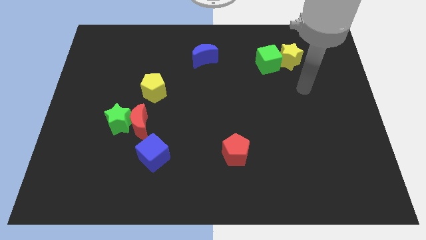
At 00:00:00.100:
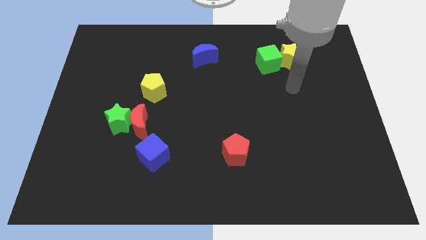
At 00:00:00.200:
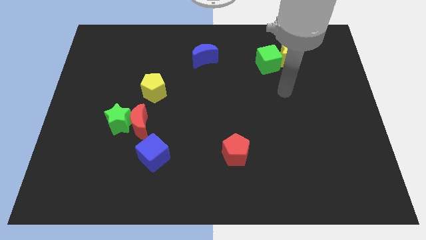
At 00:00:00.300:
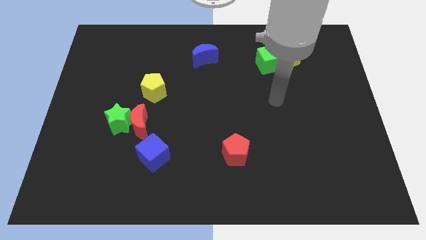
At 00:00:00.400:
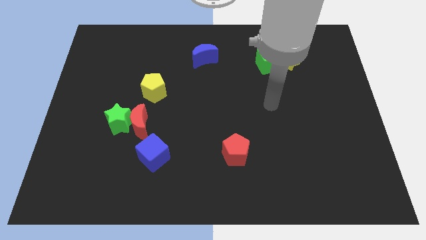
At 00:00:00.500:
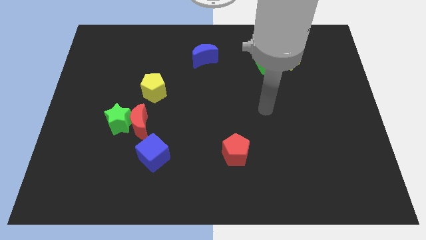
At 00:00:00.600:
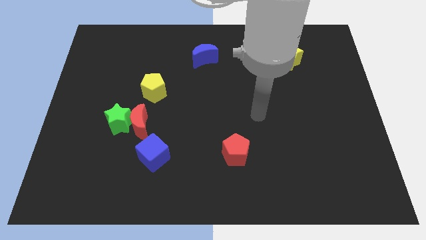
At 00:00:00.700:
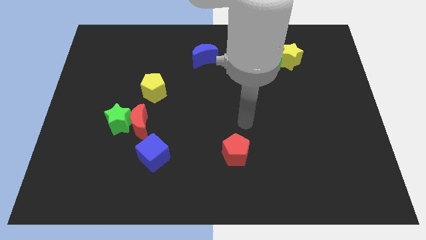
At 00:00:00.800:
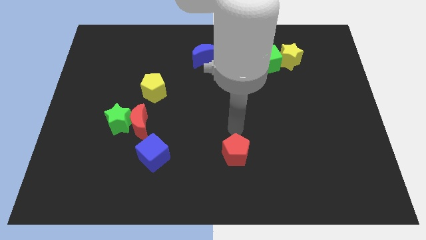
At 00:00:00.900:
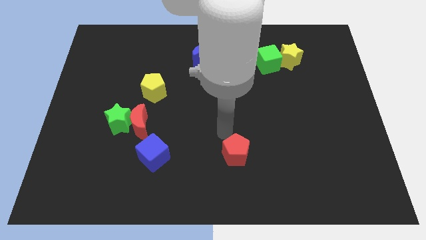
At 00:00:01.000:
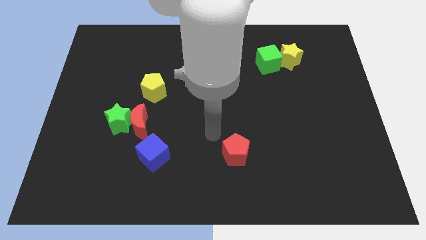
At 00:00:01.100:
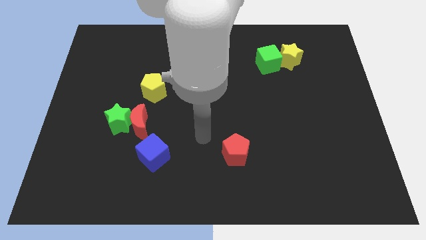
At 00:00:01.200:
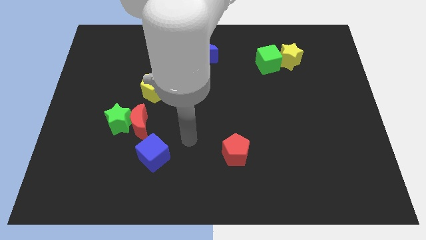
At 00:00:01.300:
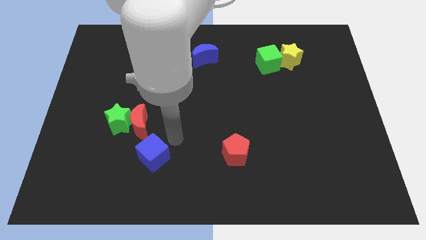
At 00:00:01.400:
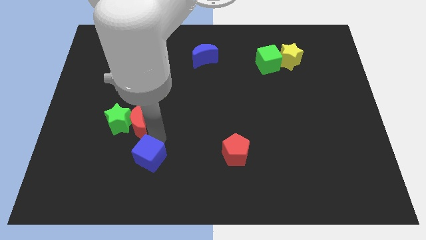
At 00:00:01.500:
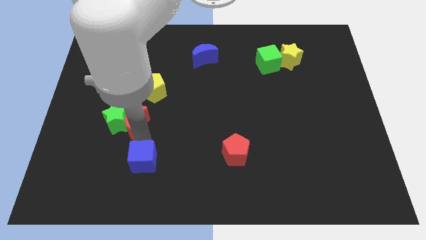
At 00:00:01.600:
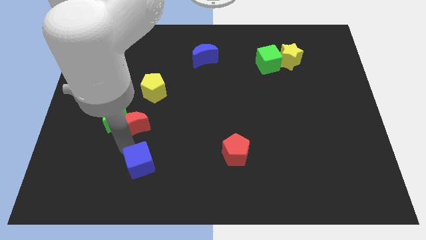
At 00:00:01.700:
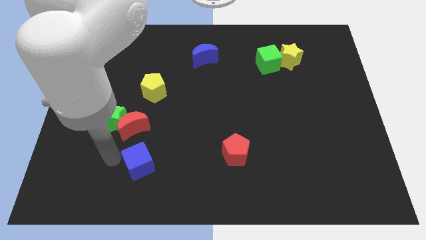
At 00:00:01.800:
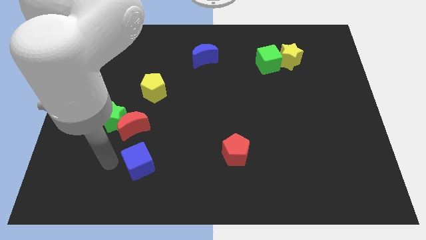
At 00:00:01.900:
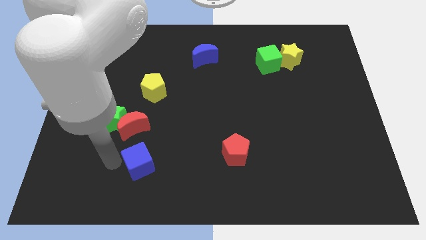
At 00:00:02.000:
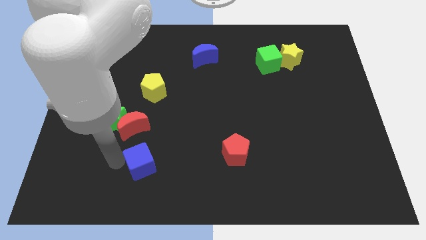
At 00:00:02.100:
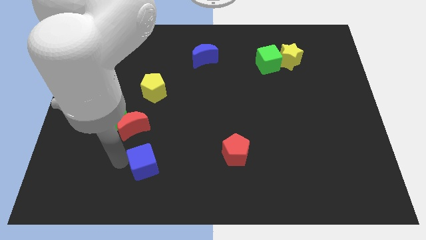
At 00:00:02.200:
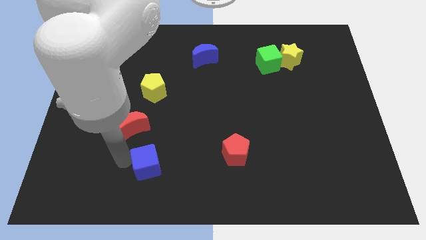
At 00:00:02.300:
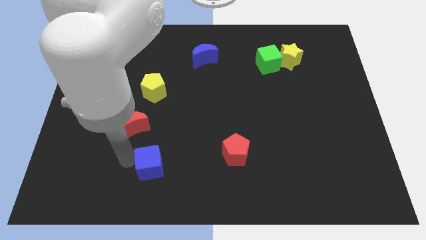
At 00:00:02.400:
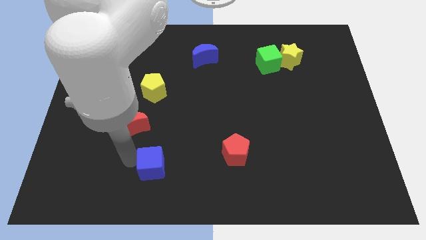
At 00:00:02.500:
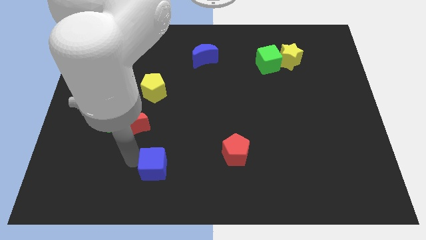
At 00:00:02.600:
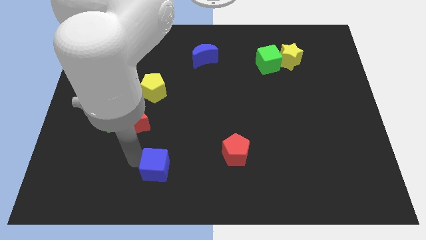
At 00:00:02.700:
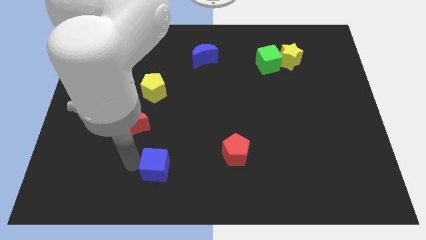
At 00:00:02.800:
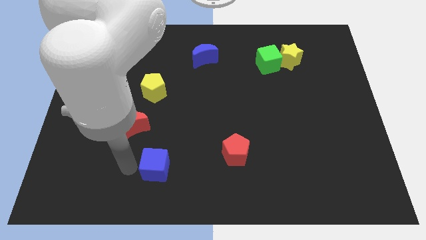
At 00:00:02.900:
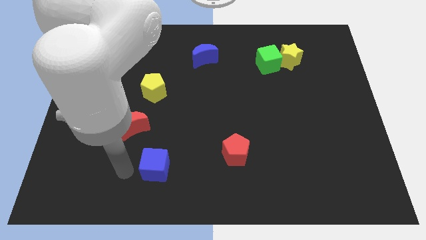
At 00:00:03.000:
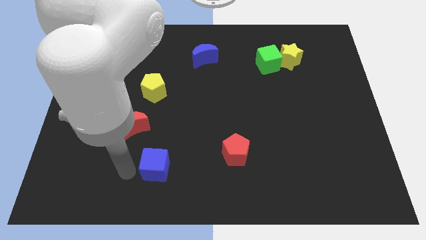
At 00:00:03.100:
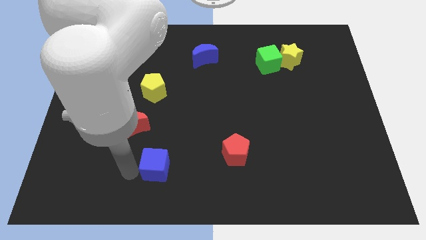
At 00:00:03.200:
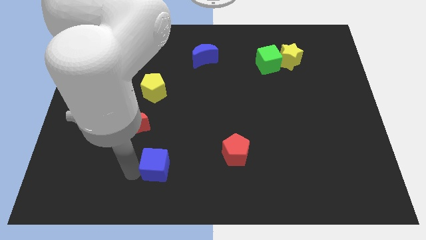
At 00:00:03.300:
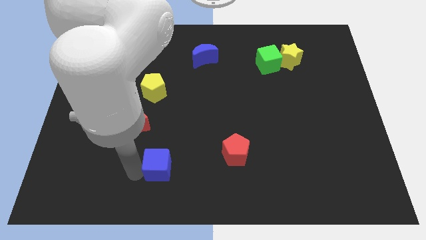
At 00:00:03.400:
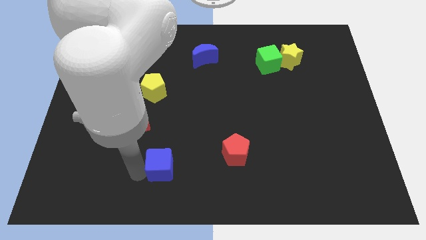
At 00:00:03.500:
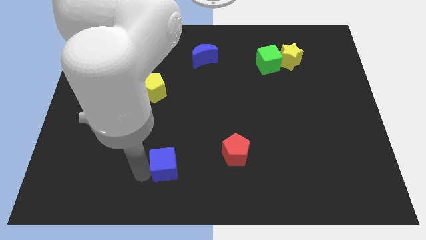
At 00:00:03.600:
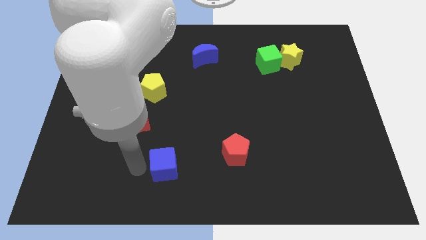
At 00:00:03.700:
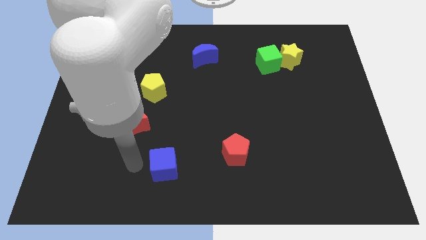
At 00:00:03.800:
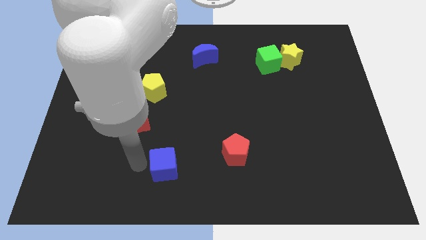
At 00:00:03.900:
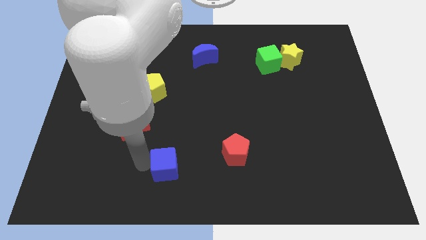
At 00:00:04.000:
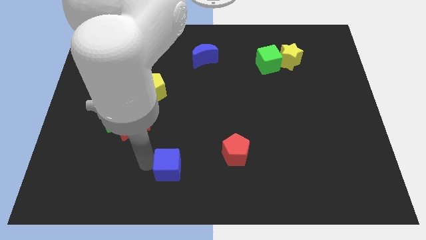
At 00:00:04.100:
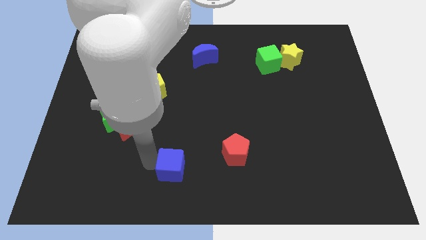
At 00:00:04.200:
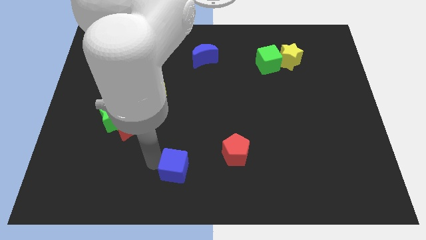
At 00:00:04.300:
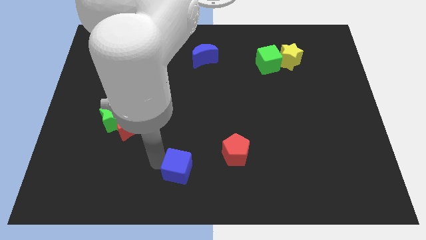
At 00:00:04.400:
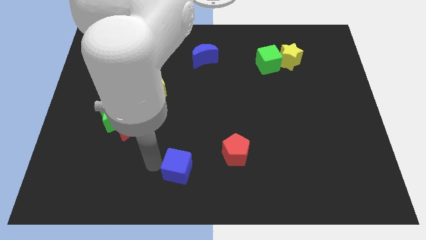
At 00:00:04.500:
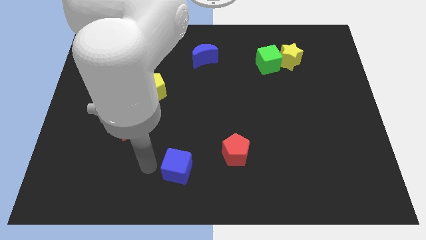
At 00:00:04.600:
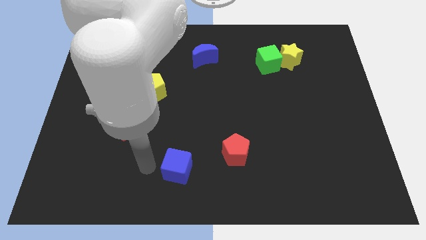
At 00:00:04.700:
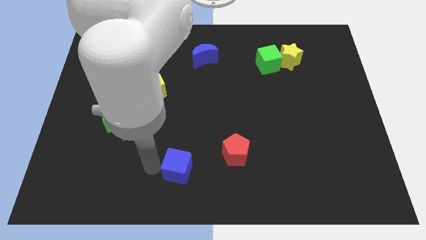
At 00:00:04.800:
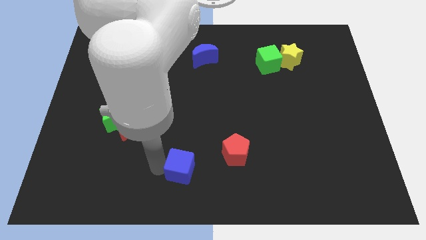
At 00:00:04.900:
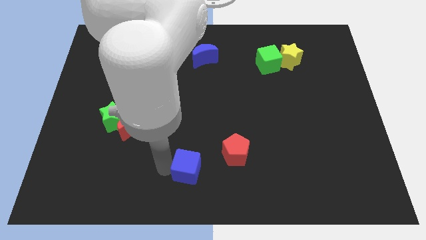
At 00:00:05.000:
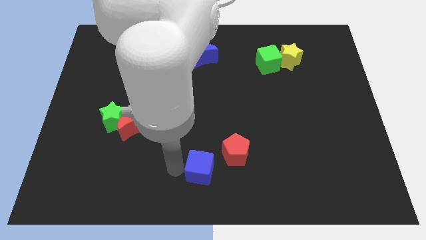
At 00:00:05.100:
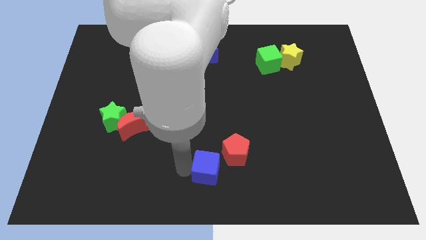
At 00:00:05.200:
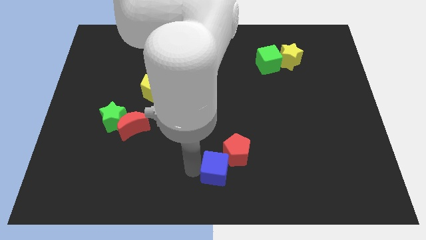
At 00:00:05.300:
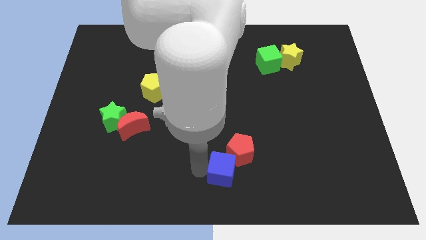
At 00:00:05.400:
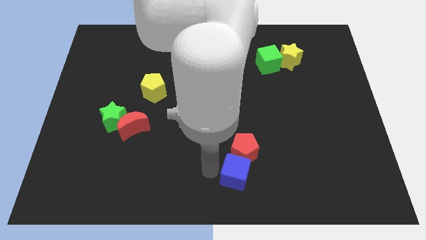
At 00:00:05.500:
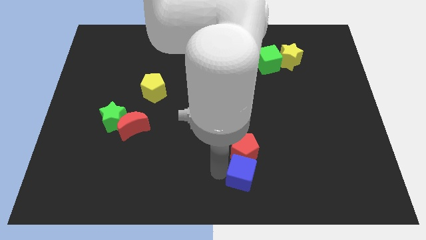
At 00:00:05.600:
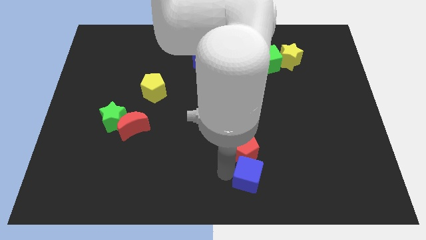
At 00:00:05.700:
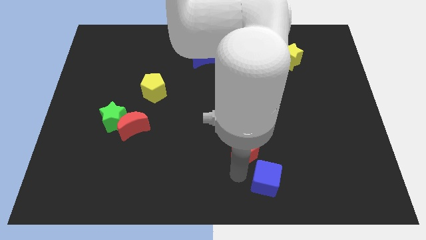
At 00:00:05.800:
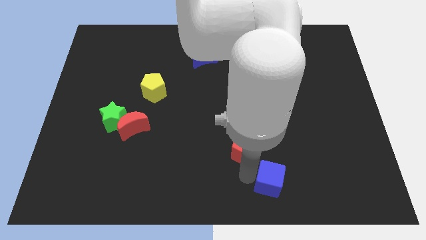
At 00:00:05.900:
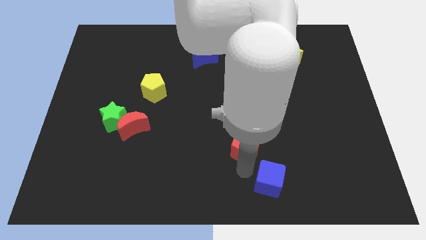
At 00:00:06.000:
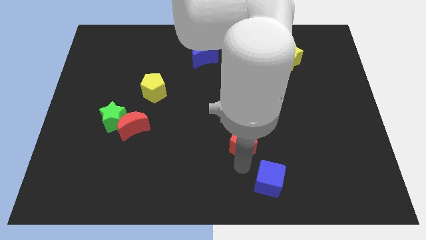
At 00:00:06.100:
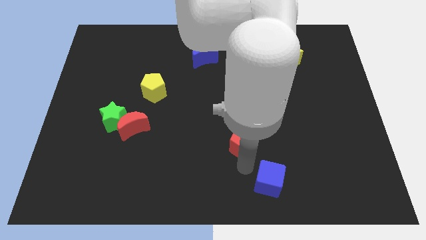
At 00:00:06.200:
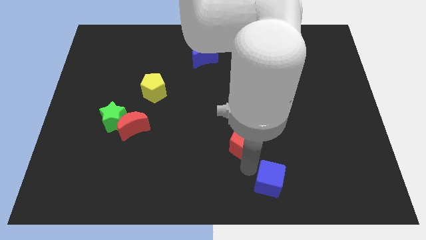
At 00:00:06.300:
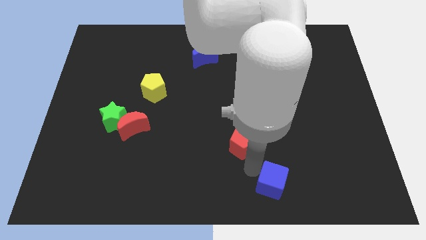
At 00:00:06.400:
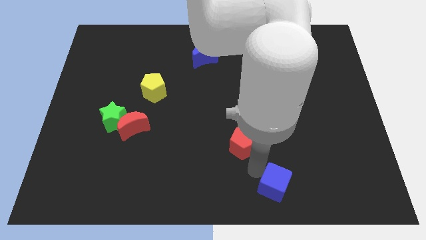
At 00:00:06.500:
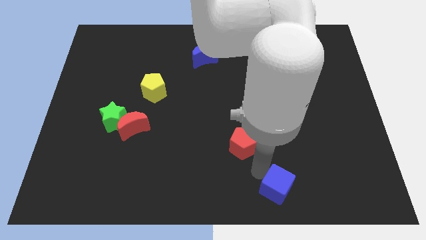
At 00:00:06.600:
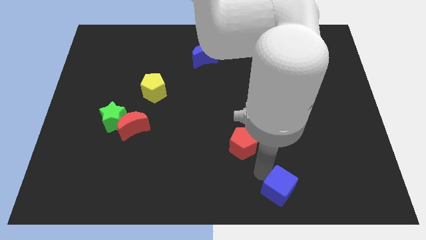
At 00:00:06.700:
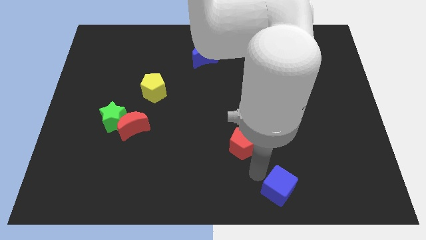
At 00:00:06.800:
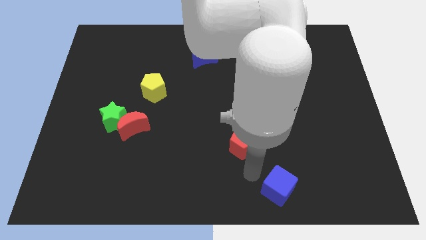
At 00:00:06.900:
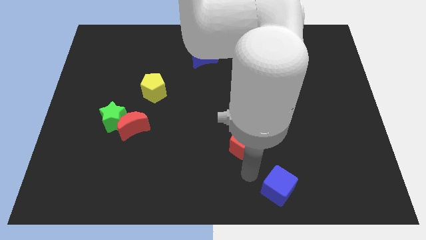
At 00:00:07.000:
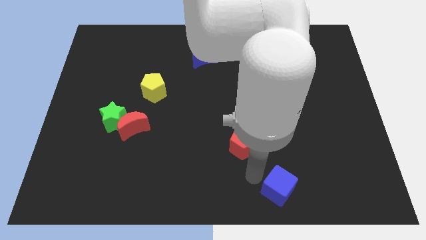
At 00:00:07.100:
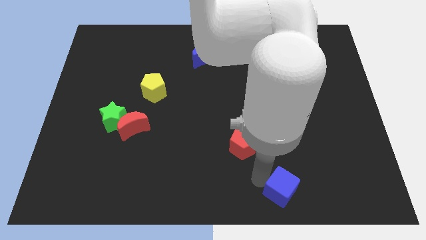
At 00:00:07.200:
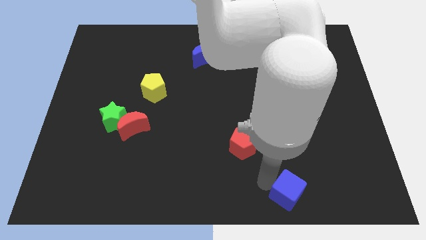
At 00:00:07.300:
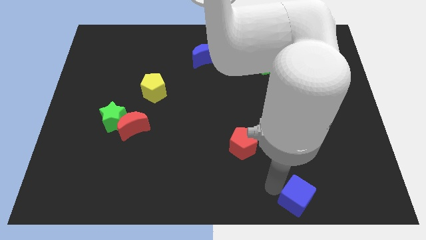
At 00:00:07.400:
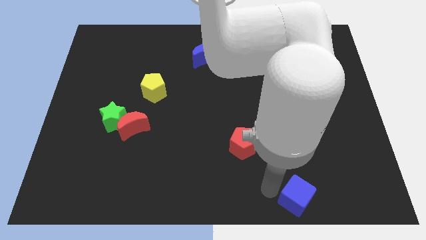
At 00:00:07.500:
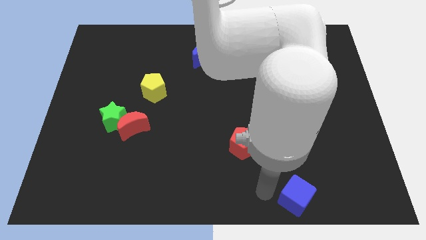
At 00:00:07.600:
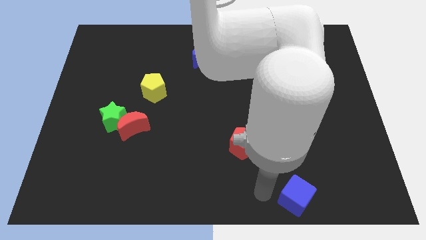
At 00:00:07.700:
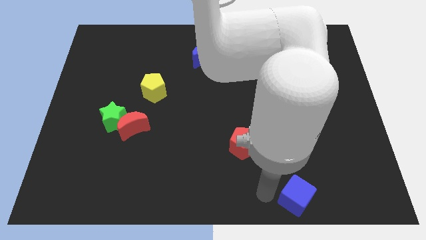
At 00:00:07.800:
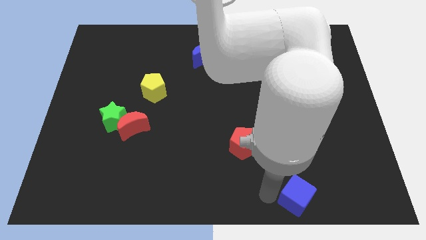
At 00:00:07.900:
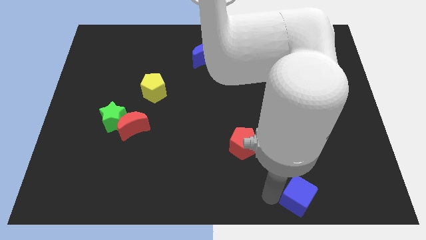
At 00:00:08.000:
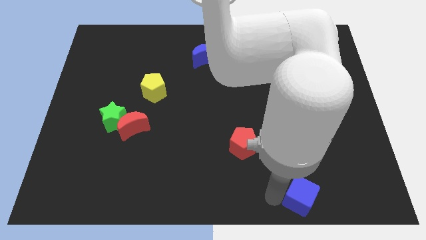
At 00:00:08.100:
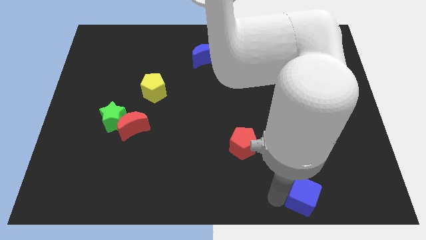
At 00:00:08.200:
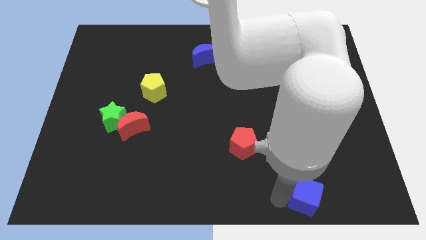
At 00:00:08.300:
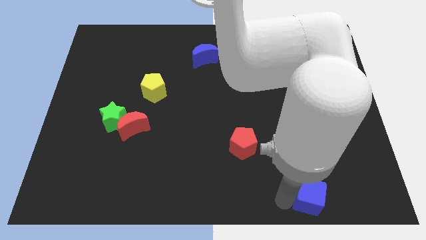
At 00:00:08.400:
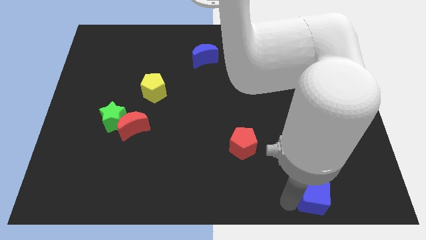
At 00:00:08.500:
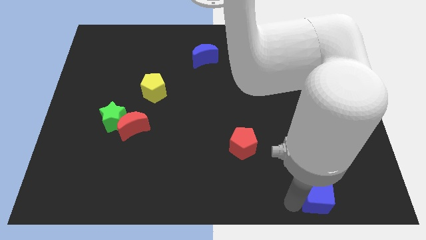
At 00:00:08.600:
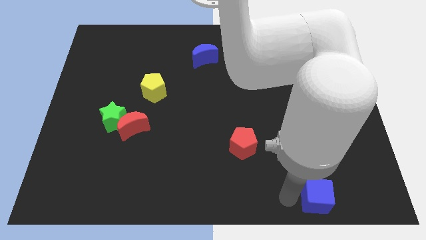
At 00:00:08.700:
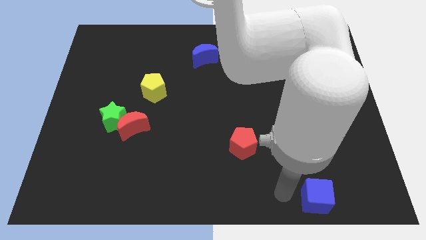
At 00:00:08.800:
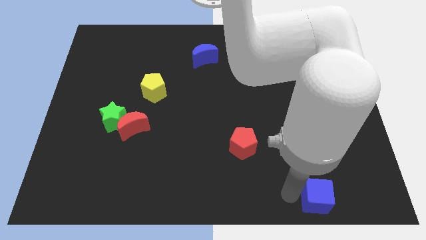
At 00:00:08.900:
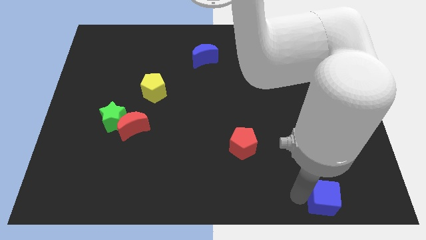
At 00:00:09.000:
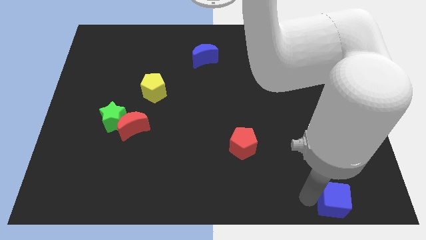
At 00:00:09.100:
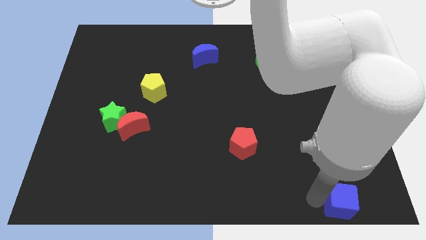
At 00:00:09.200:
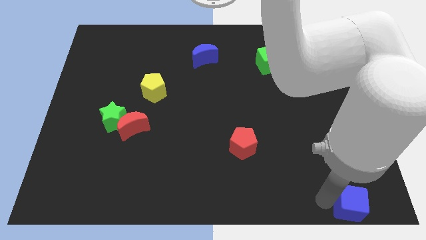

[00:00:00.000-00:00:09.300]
push the blue cube to the lower right corner
